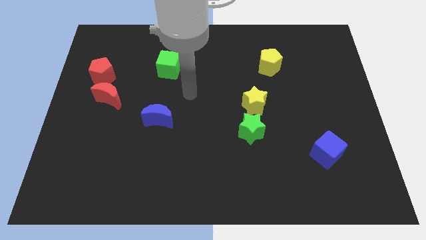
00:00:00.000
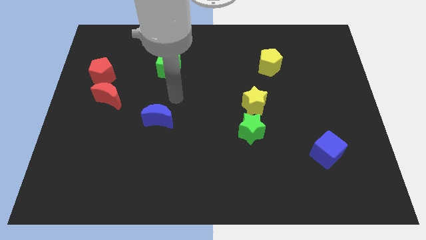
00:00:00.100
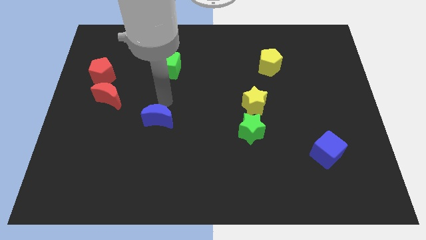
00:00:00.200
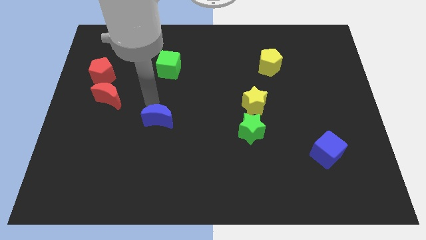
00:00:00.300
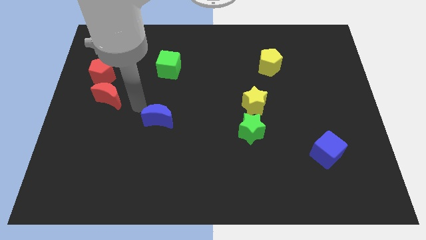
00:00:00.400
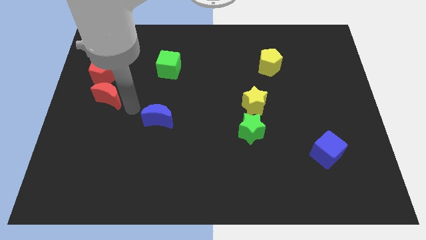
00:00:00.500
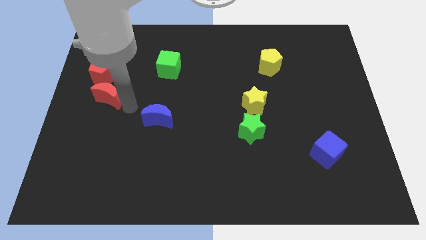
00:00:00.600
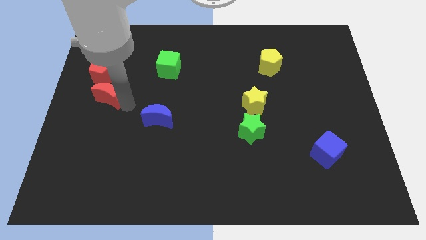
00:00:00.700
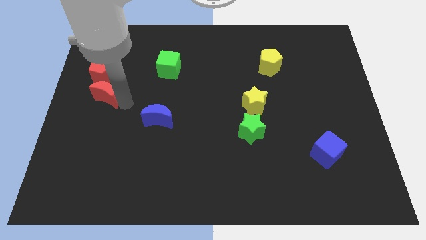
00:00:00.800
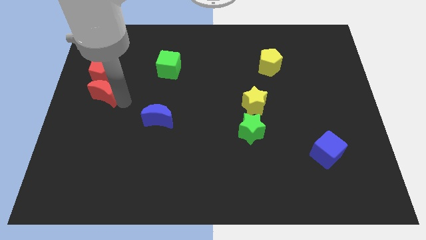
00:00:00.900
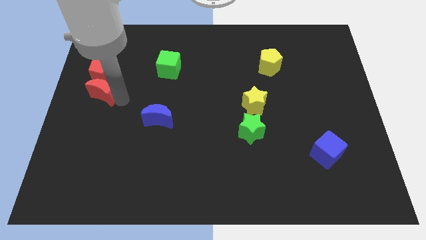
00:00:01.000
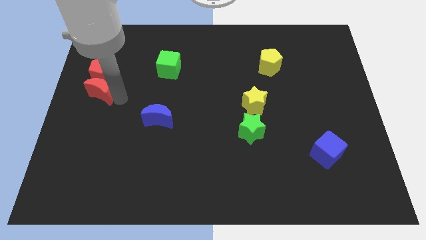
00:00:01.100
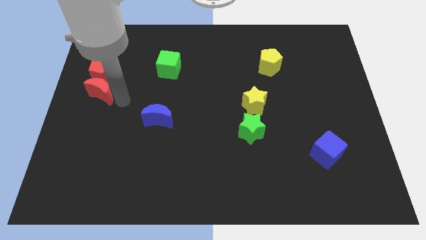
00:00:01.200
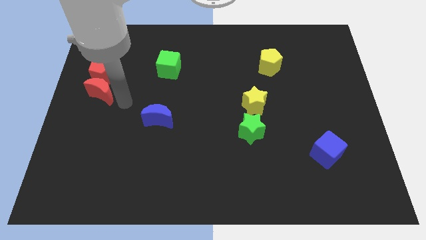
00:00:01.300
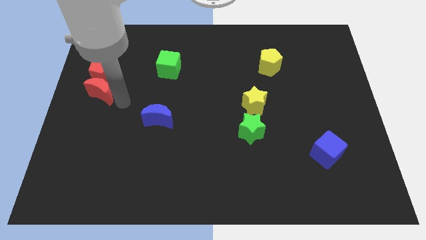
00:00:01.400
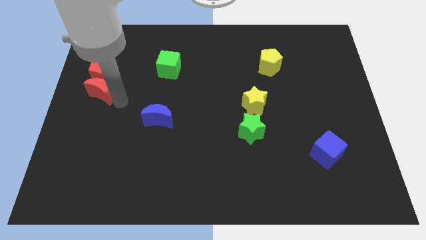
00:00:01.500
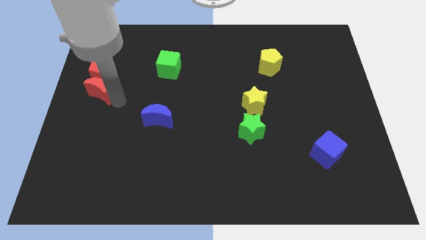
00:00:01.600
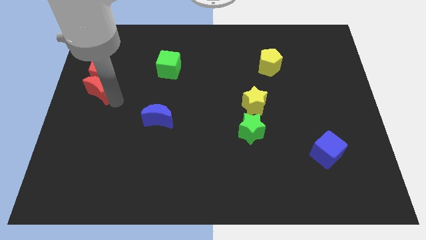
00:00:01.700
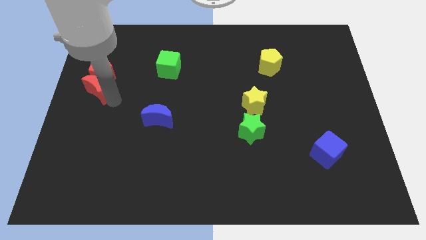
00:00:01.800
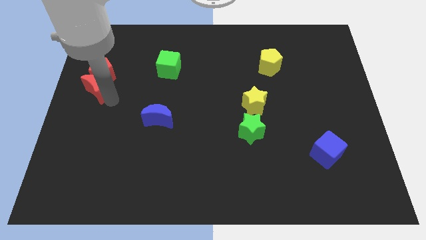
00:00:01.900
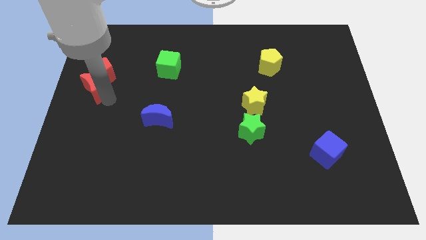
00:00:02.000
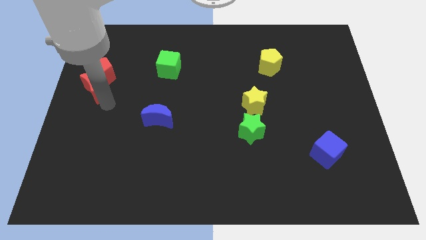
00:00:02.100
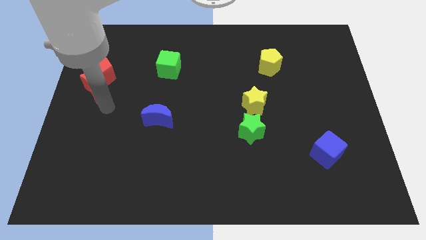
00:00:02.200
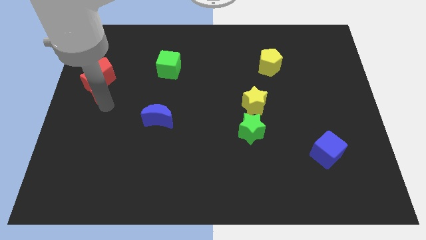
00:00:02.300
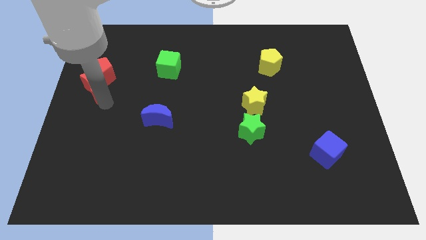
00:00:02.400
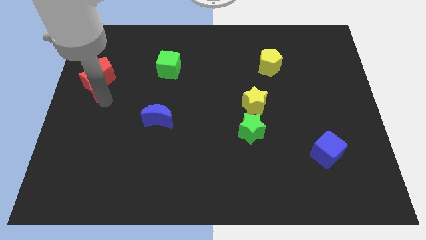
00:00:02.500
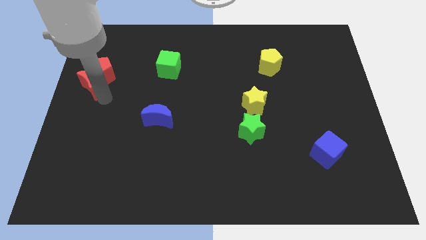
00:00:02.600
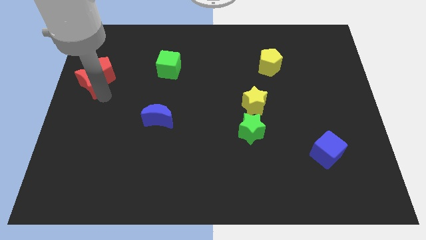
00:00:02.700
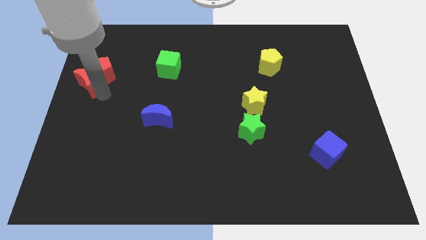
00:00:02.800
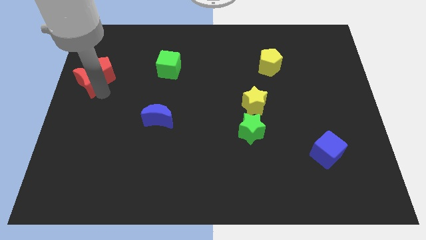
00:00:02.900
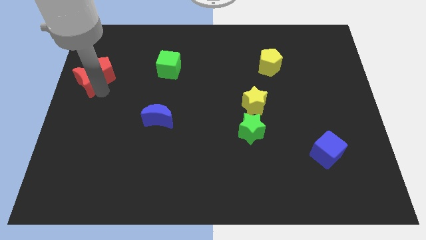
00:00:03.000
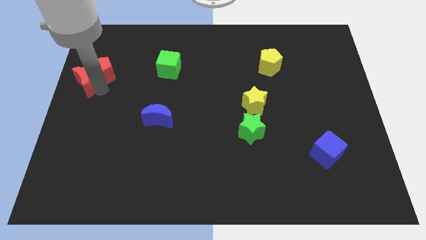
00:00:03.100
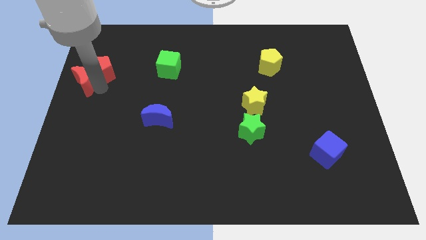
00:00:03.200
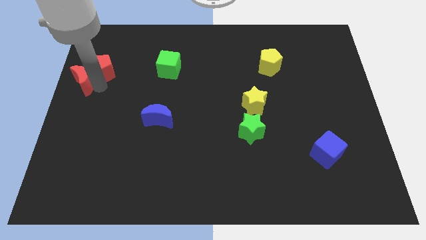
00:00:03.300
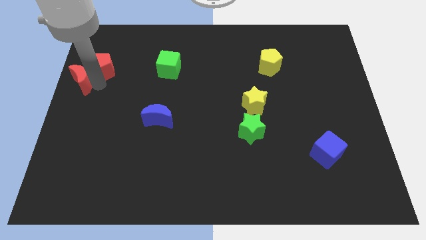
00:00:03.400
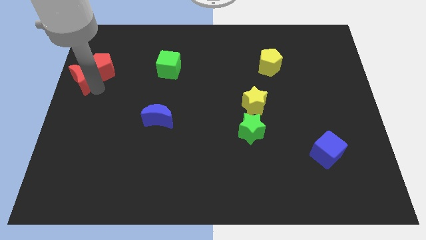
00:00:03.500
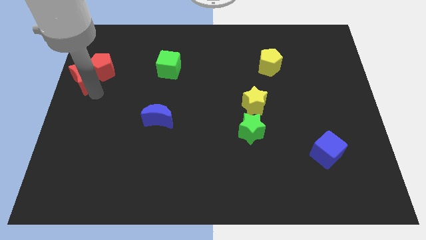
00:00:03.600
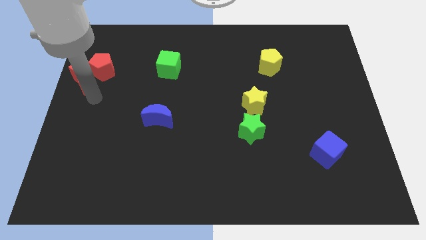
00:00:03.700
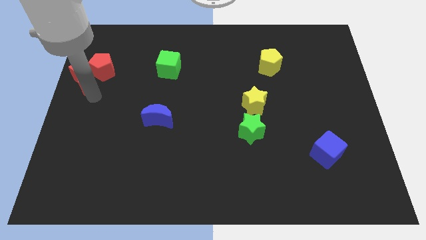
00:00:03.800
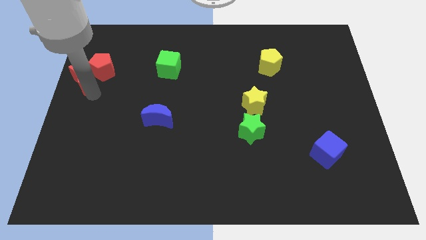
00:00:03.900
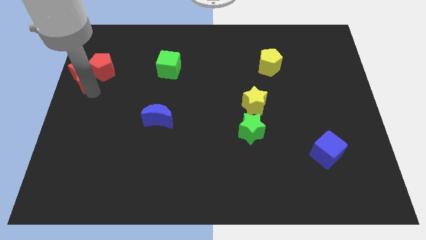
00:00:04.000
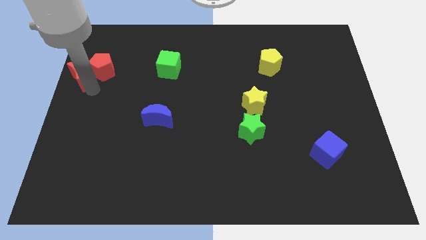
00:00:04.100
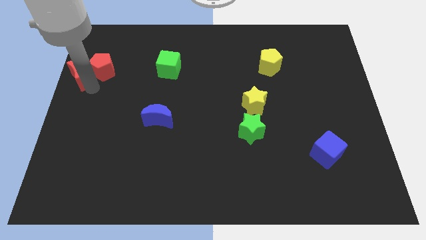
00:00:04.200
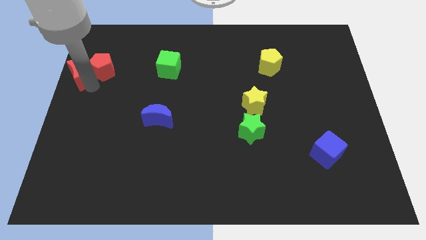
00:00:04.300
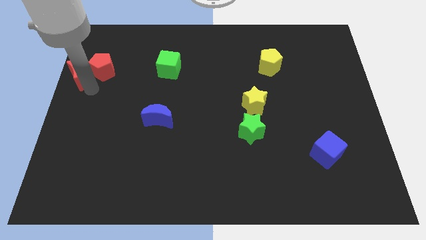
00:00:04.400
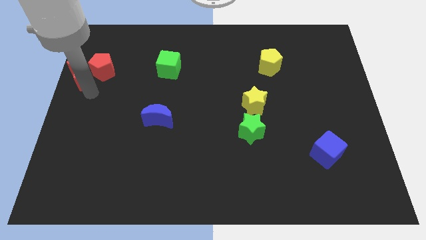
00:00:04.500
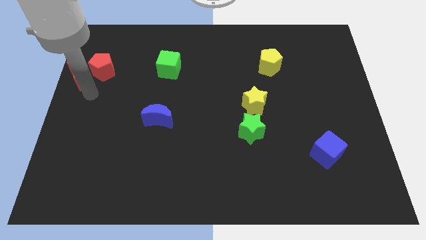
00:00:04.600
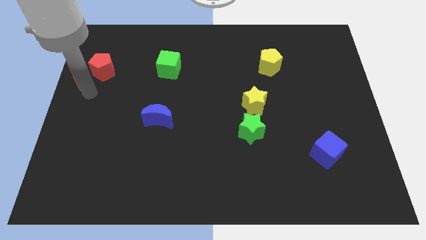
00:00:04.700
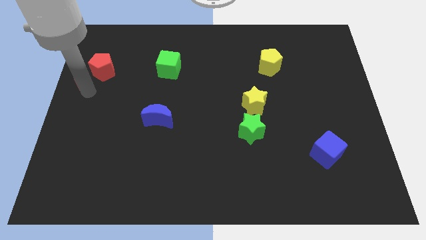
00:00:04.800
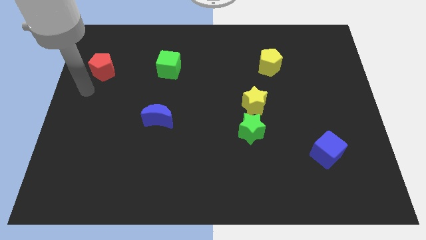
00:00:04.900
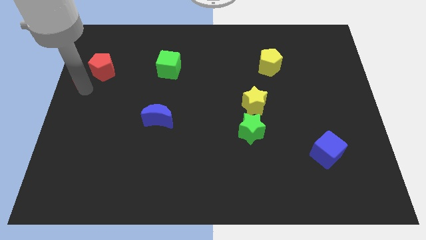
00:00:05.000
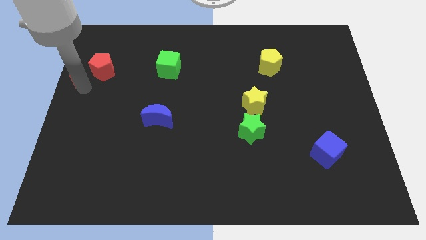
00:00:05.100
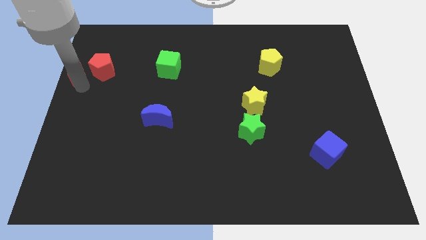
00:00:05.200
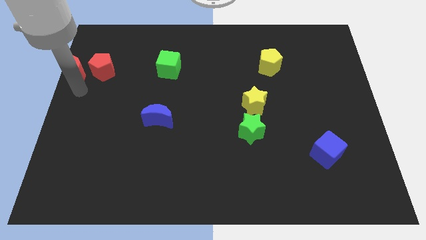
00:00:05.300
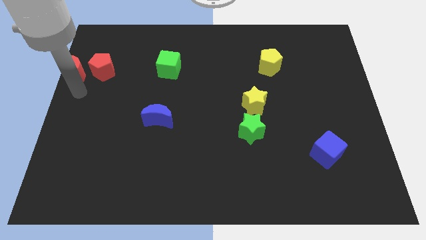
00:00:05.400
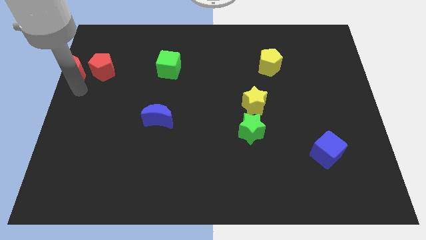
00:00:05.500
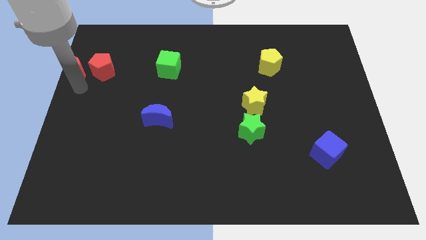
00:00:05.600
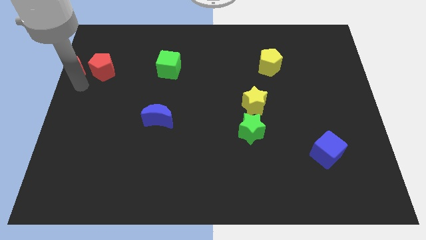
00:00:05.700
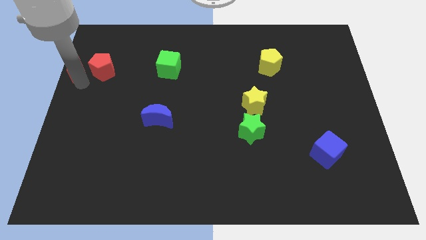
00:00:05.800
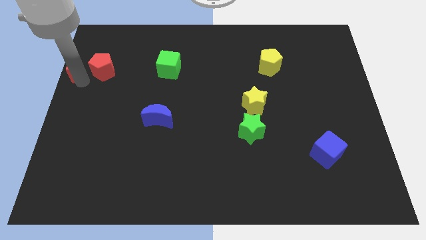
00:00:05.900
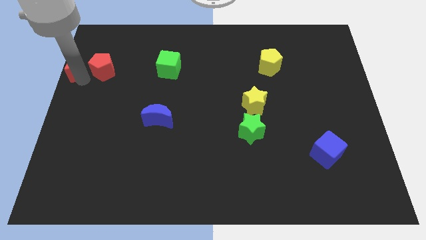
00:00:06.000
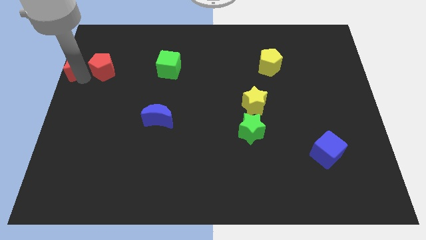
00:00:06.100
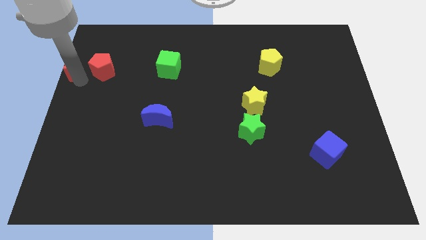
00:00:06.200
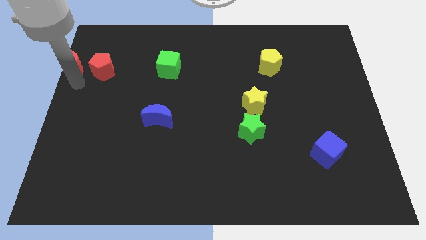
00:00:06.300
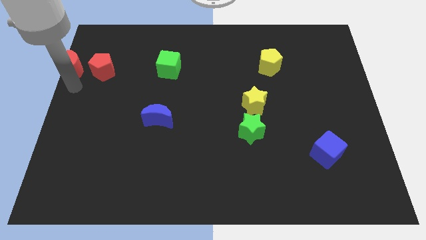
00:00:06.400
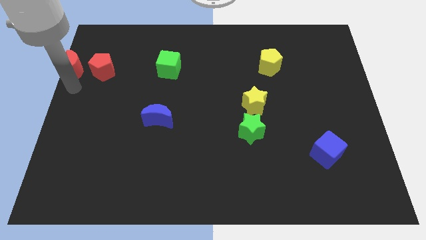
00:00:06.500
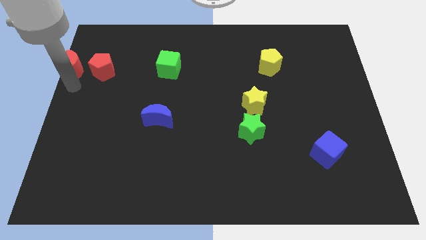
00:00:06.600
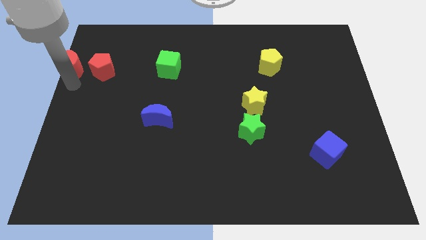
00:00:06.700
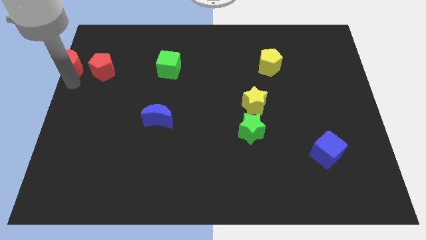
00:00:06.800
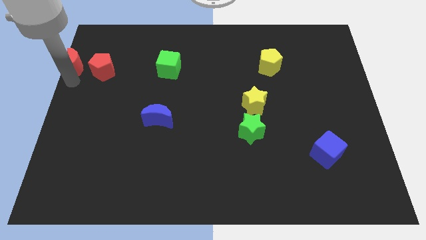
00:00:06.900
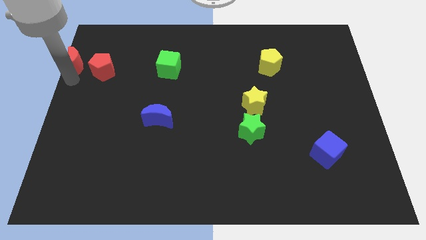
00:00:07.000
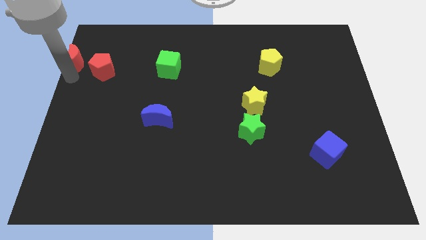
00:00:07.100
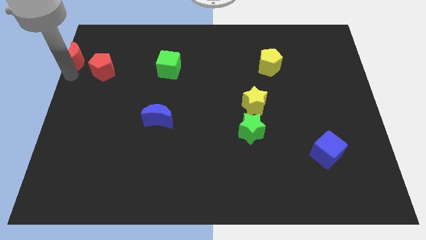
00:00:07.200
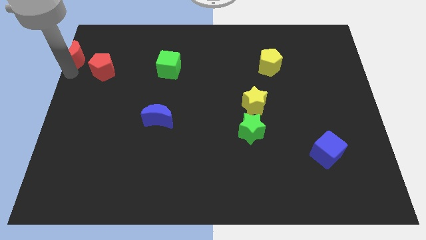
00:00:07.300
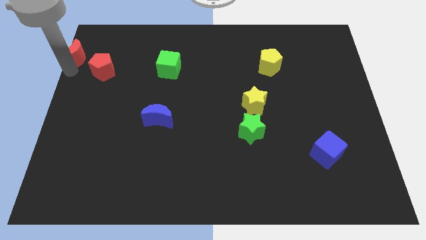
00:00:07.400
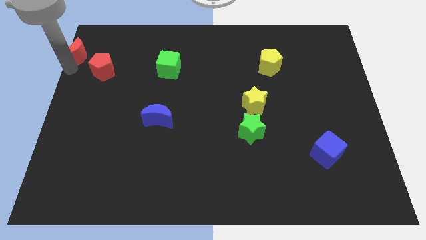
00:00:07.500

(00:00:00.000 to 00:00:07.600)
slide the red moon to the top left corner
